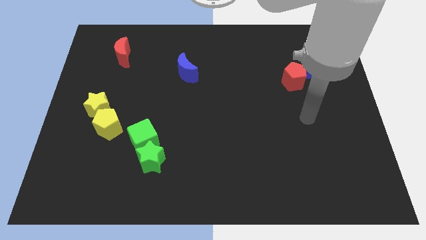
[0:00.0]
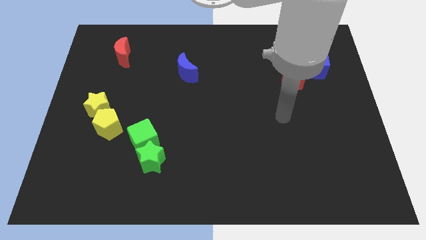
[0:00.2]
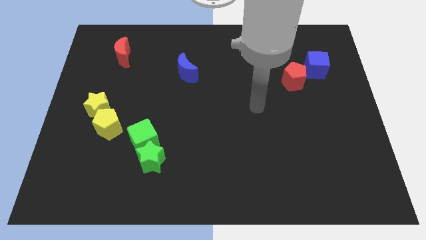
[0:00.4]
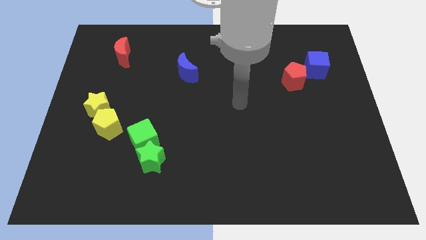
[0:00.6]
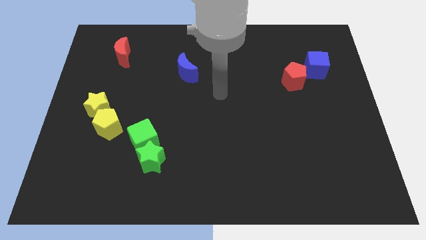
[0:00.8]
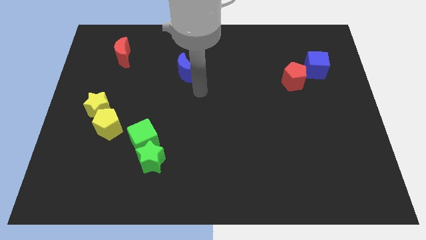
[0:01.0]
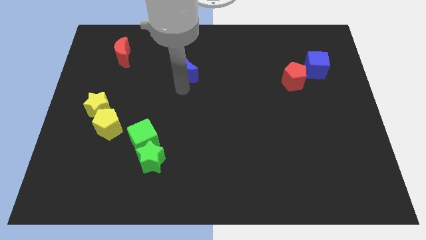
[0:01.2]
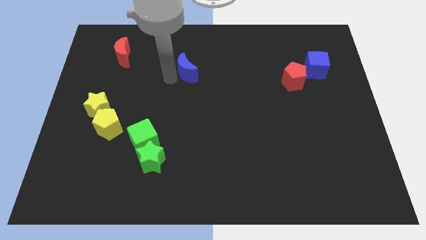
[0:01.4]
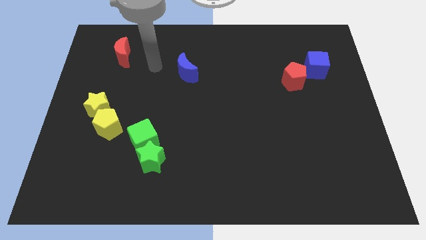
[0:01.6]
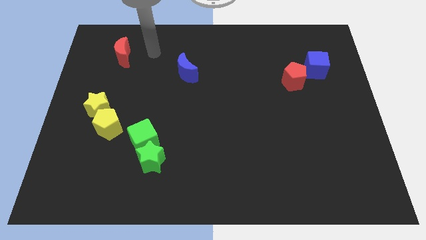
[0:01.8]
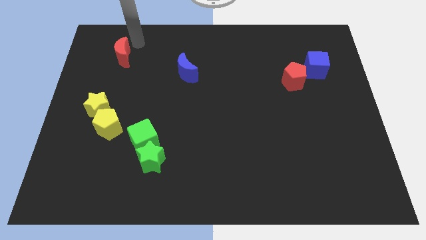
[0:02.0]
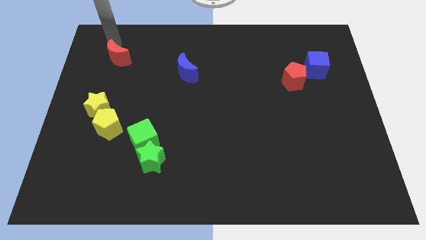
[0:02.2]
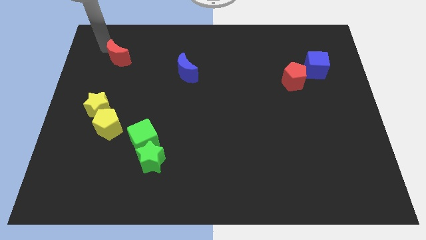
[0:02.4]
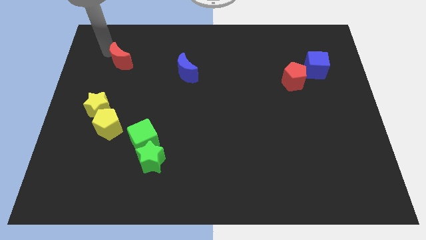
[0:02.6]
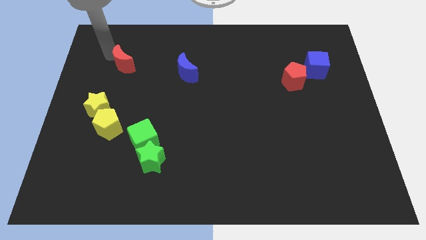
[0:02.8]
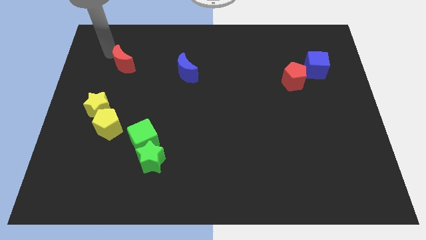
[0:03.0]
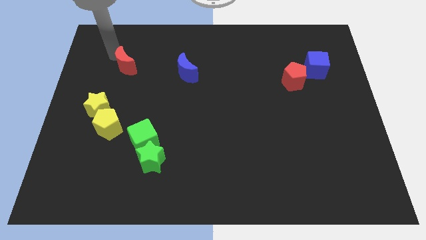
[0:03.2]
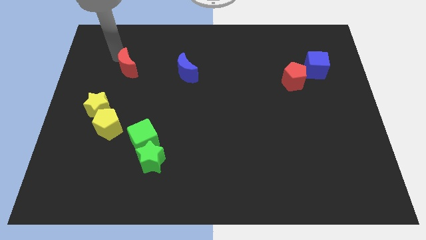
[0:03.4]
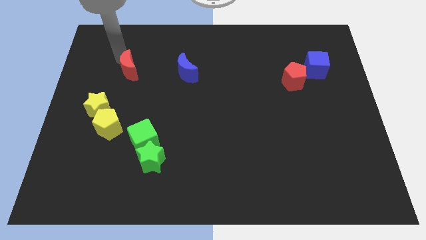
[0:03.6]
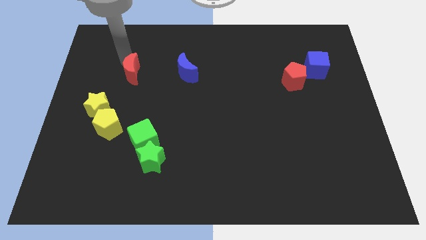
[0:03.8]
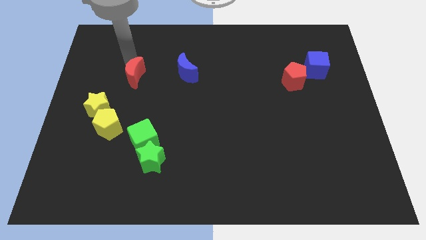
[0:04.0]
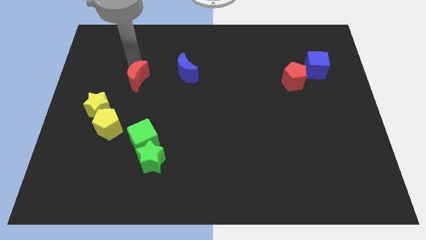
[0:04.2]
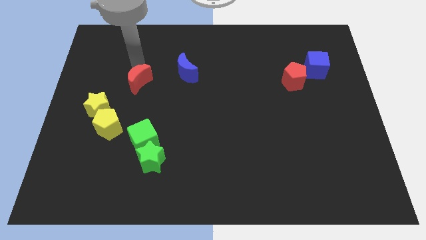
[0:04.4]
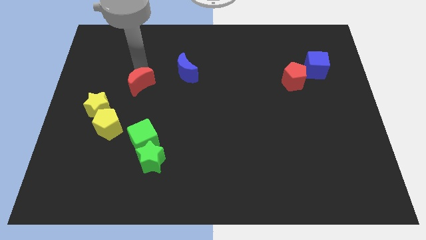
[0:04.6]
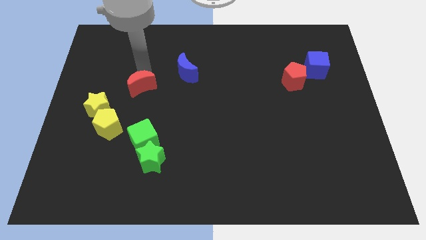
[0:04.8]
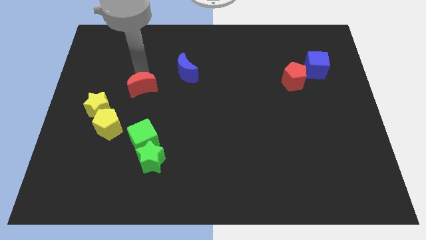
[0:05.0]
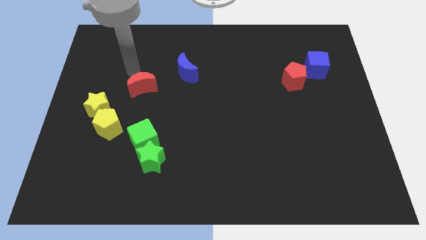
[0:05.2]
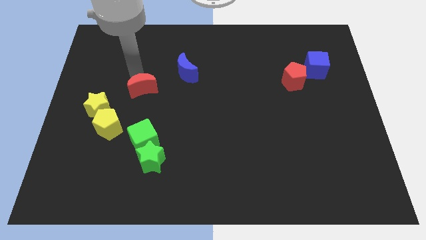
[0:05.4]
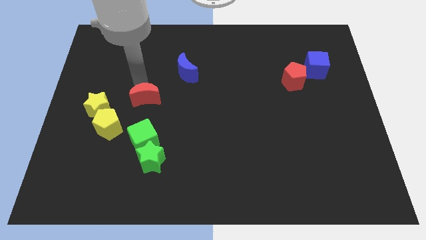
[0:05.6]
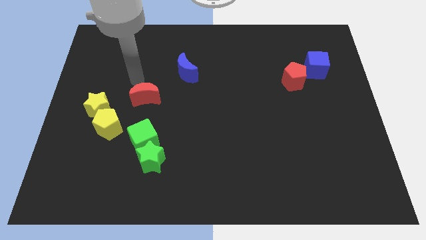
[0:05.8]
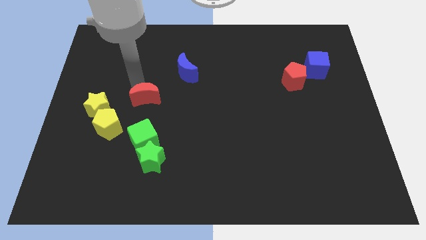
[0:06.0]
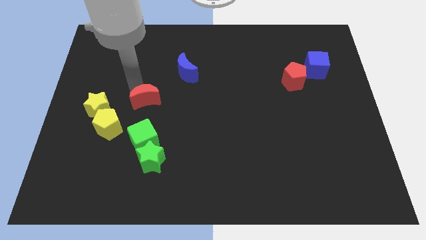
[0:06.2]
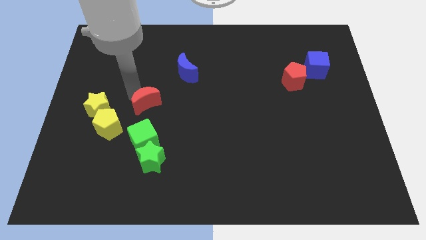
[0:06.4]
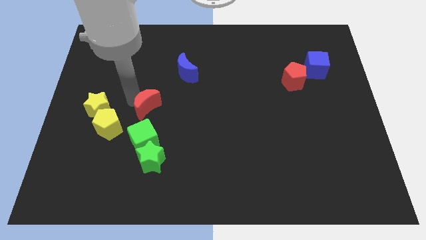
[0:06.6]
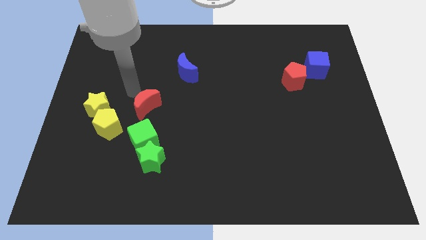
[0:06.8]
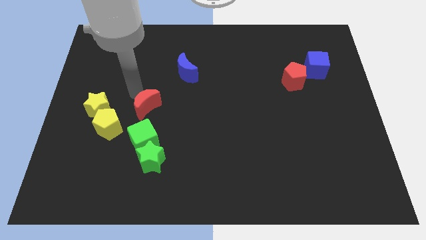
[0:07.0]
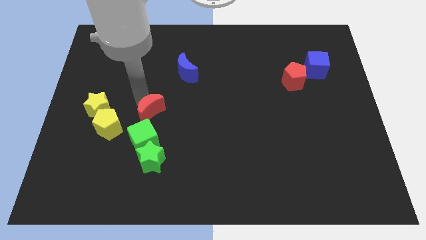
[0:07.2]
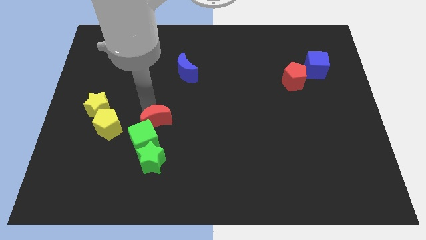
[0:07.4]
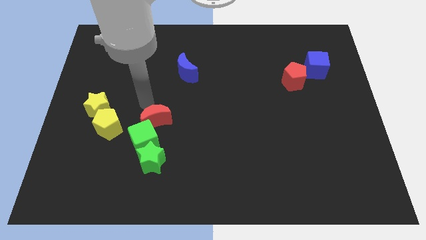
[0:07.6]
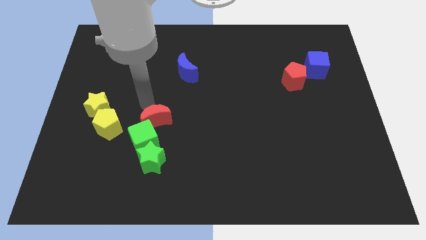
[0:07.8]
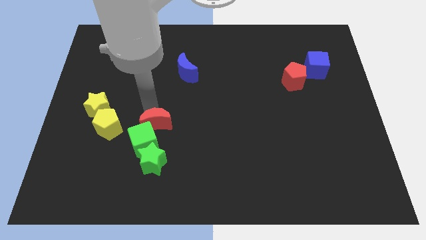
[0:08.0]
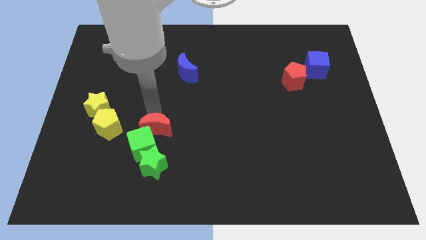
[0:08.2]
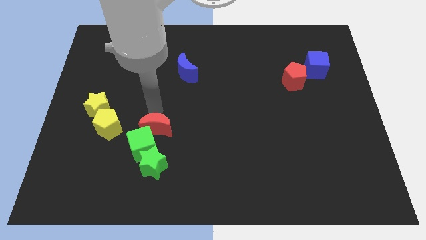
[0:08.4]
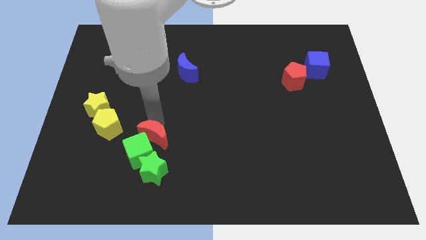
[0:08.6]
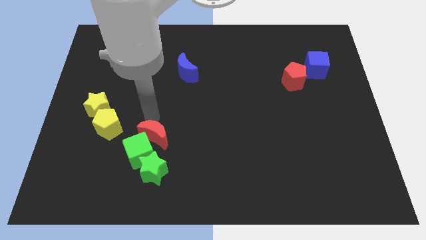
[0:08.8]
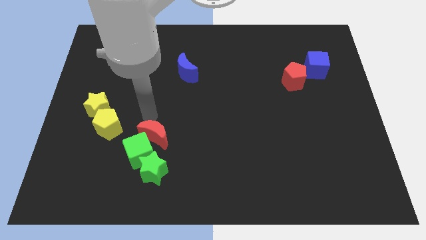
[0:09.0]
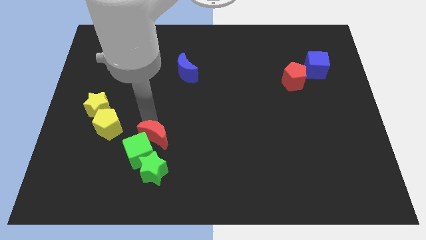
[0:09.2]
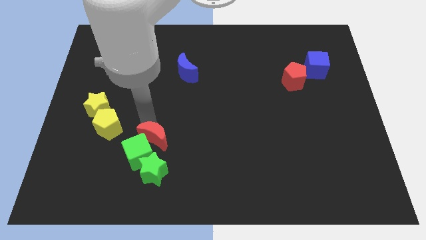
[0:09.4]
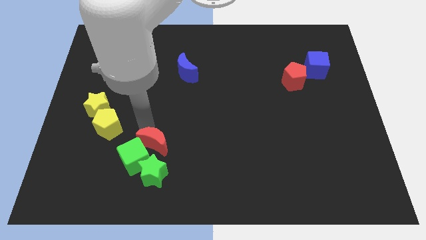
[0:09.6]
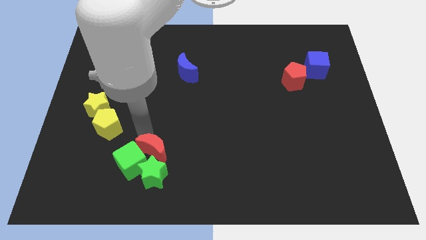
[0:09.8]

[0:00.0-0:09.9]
push the red moon towards the green star

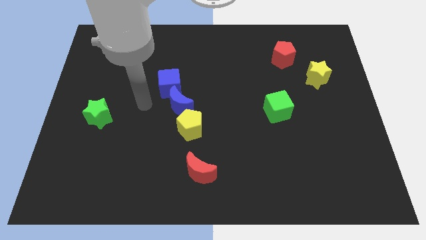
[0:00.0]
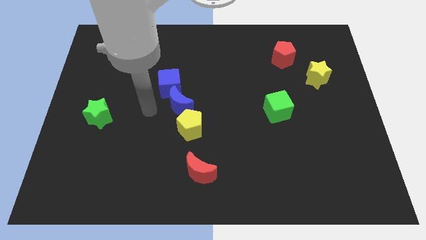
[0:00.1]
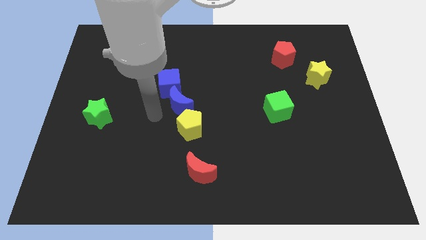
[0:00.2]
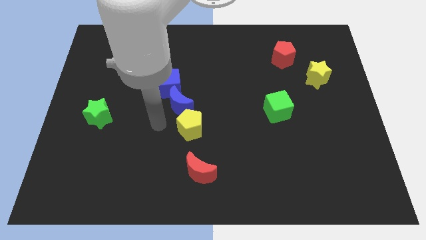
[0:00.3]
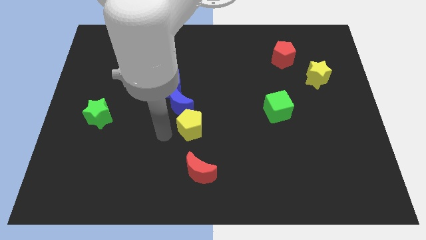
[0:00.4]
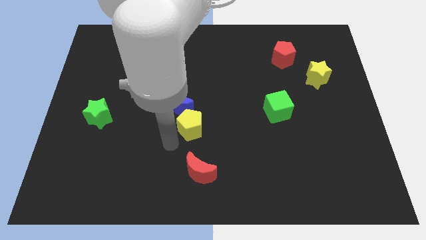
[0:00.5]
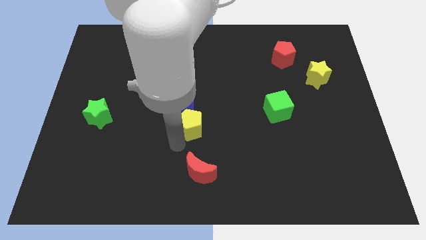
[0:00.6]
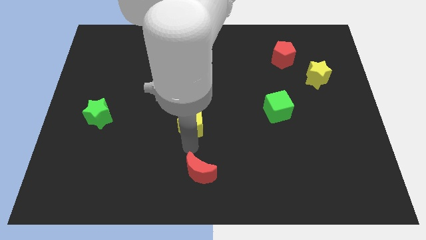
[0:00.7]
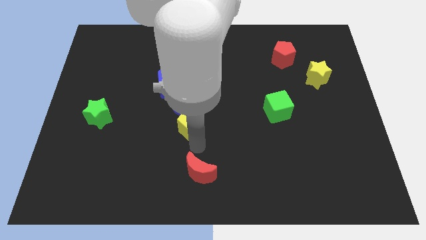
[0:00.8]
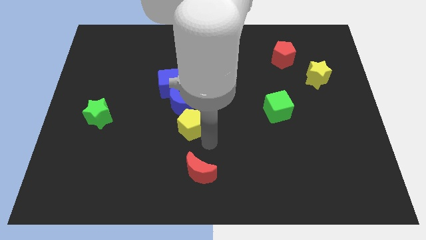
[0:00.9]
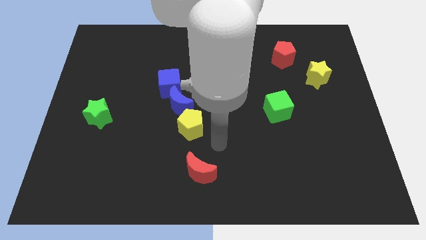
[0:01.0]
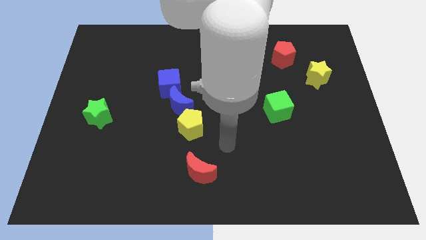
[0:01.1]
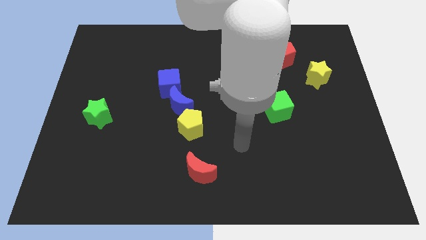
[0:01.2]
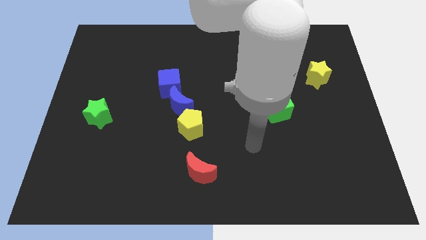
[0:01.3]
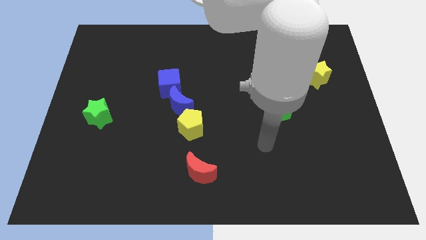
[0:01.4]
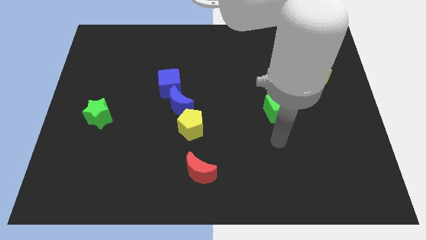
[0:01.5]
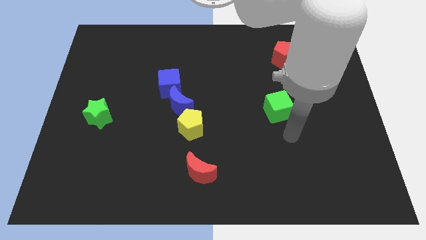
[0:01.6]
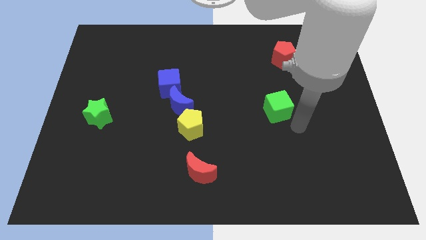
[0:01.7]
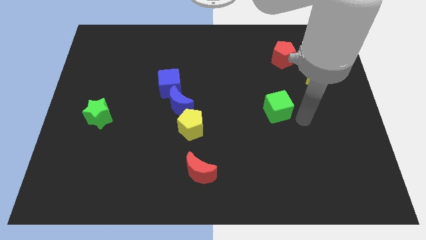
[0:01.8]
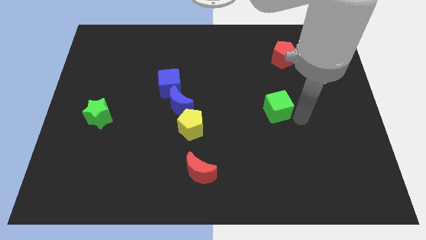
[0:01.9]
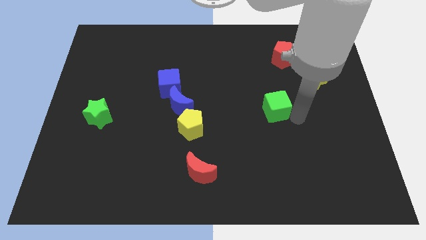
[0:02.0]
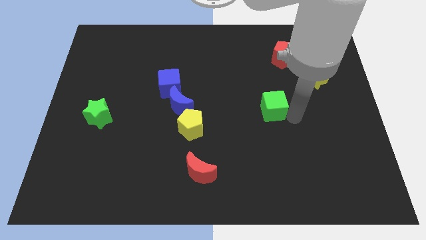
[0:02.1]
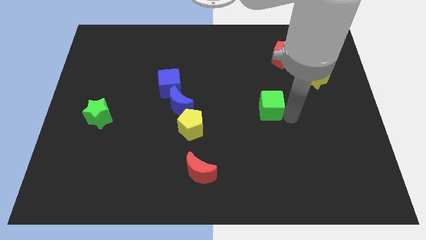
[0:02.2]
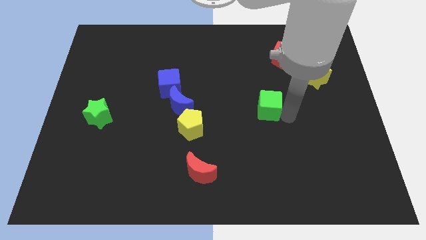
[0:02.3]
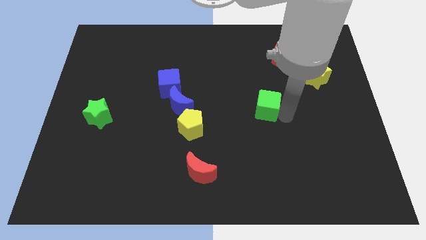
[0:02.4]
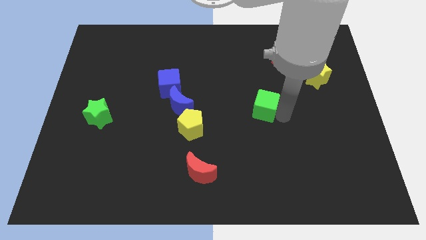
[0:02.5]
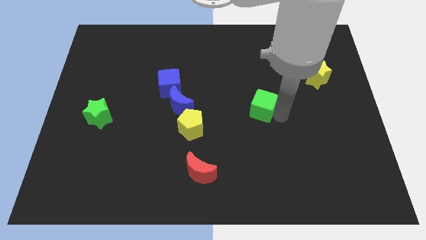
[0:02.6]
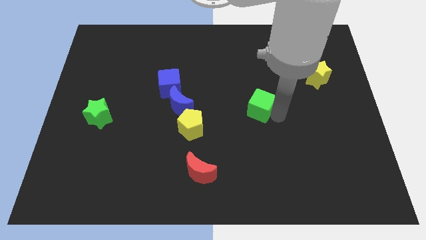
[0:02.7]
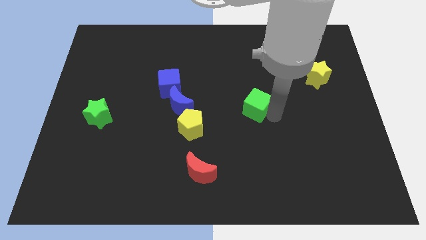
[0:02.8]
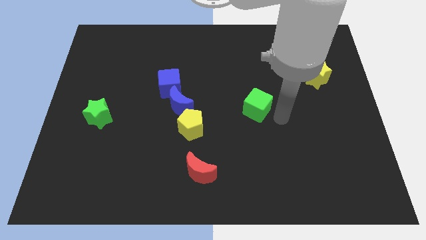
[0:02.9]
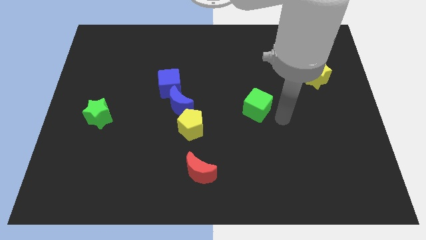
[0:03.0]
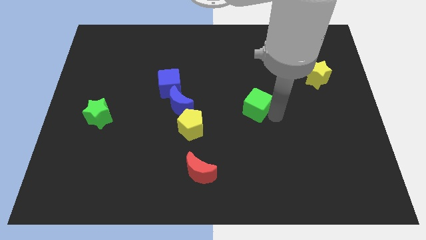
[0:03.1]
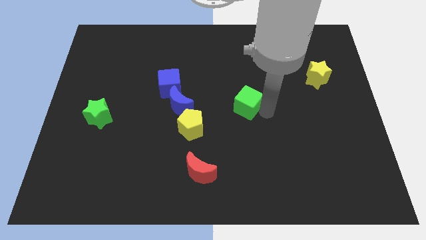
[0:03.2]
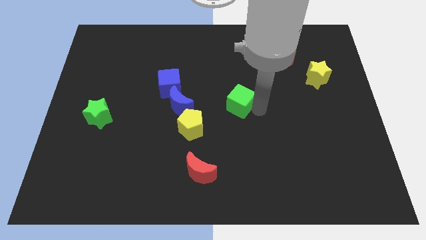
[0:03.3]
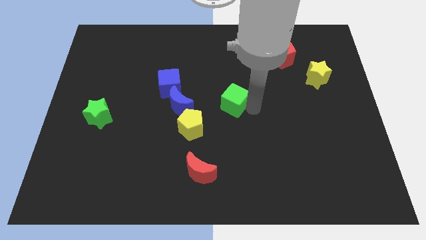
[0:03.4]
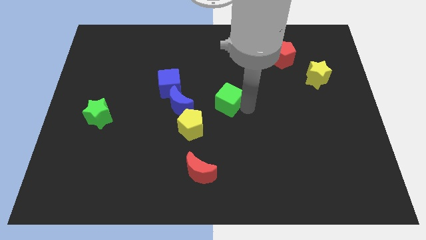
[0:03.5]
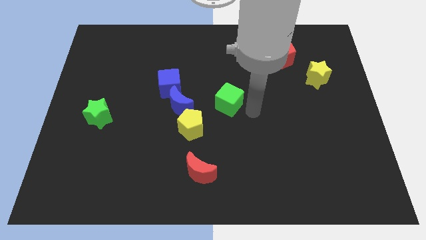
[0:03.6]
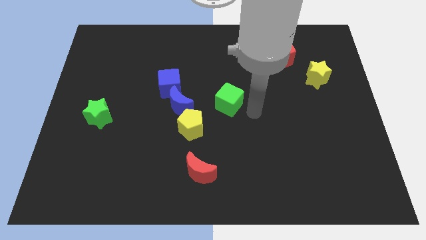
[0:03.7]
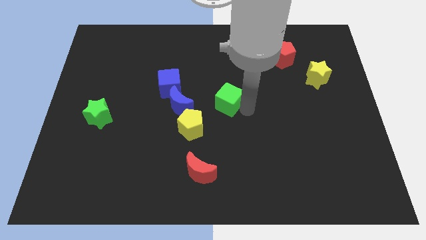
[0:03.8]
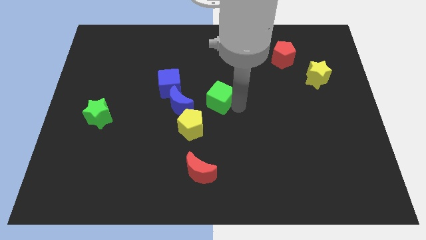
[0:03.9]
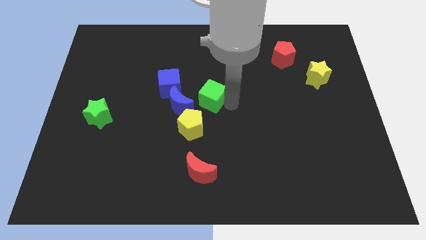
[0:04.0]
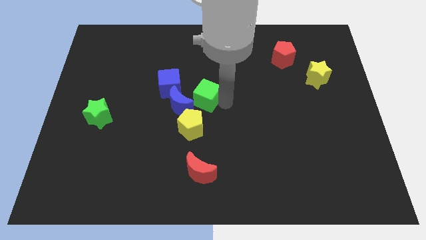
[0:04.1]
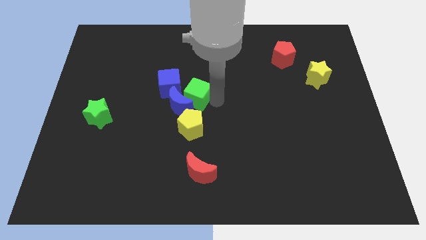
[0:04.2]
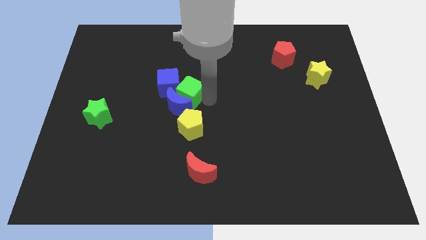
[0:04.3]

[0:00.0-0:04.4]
move the green cube to the blue cube
